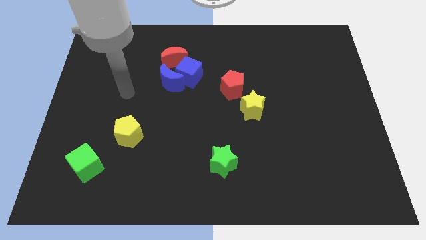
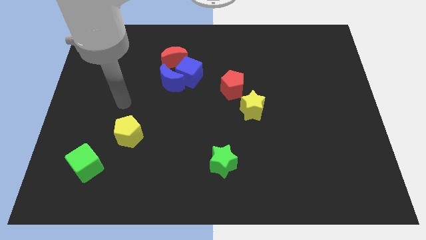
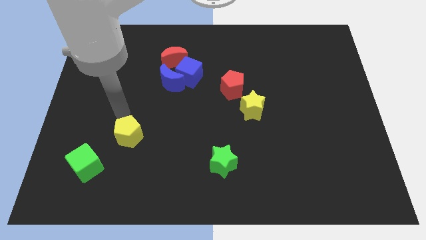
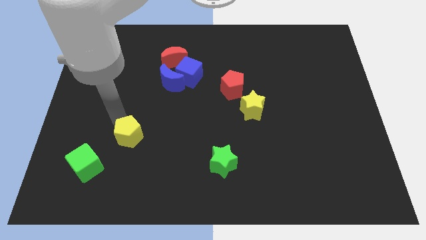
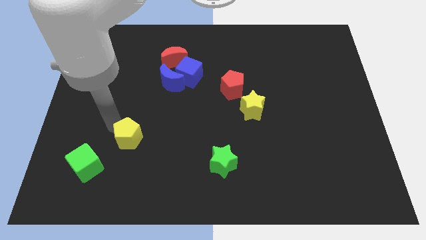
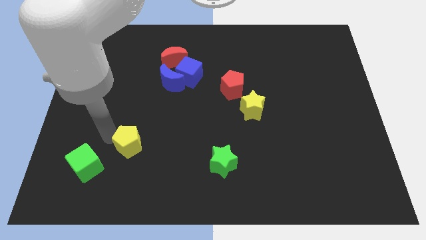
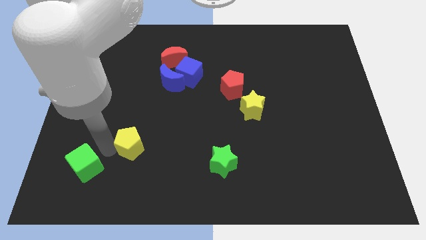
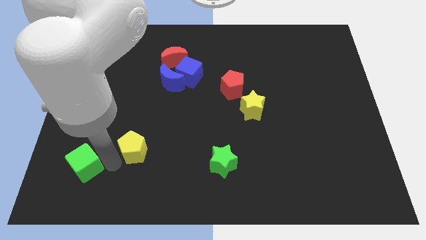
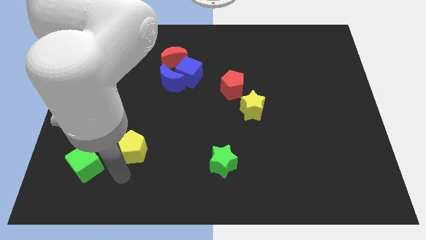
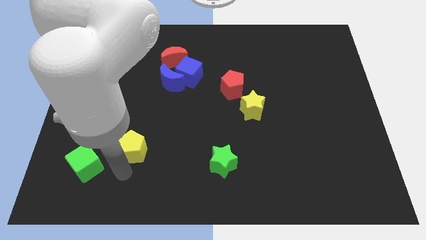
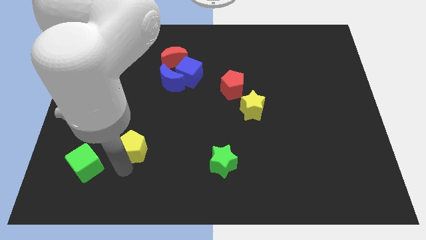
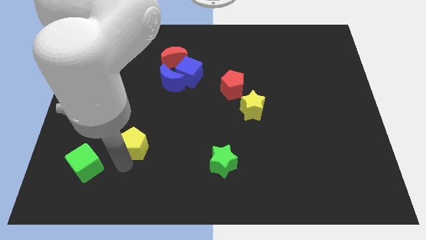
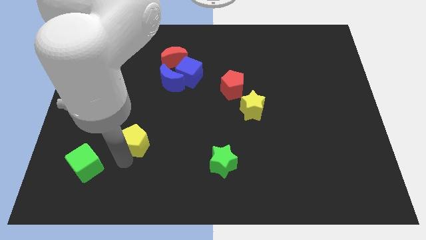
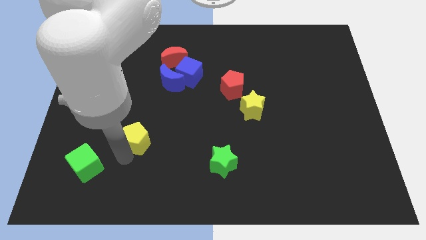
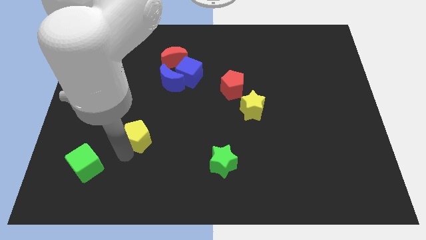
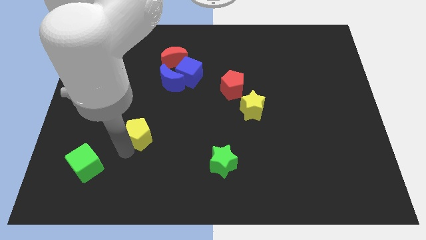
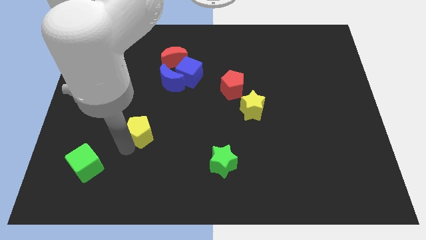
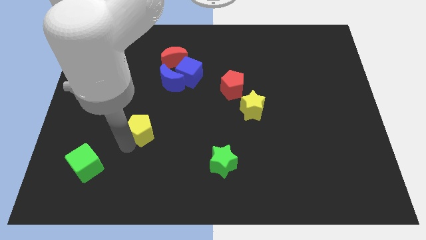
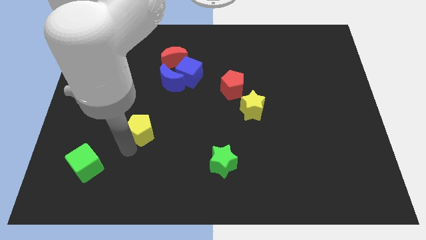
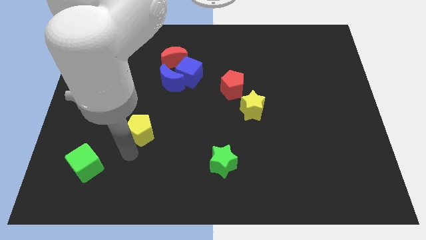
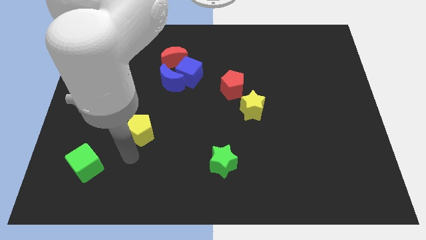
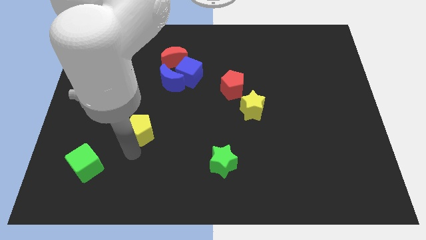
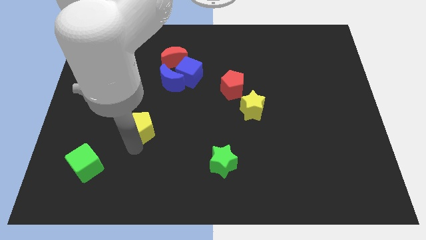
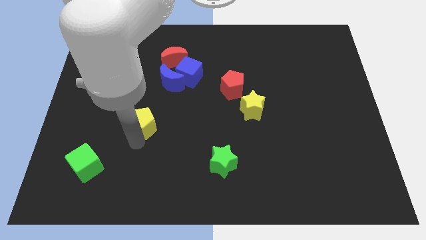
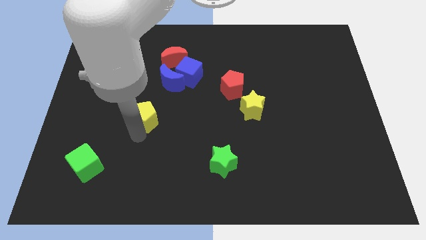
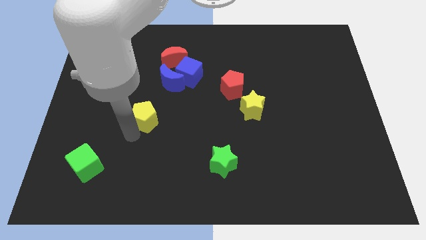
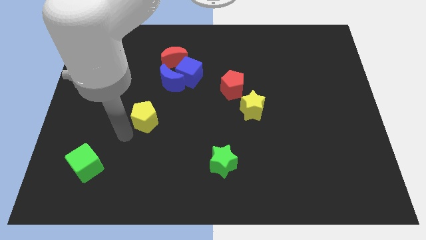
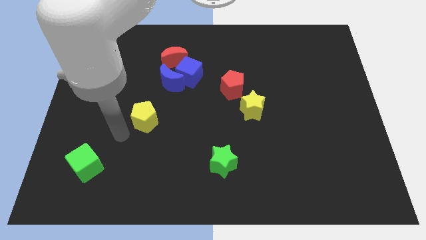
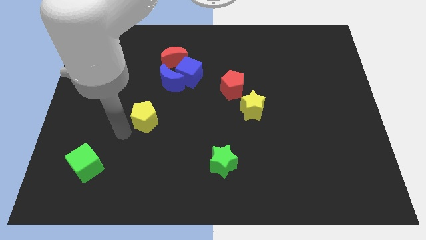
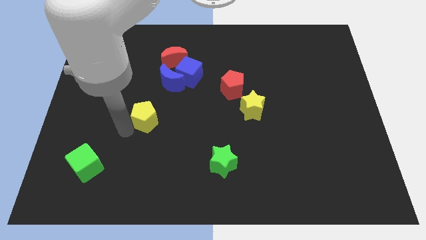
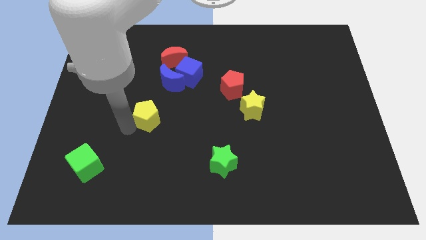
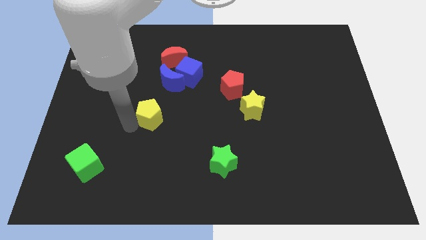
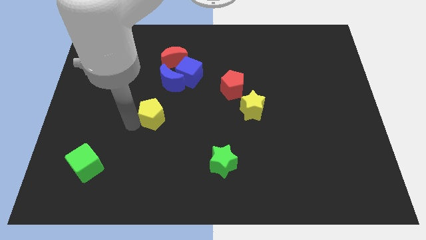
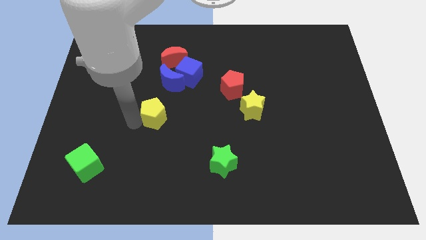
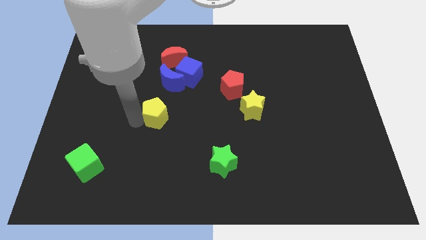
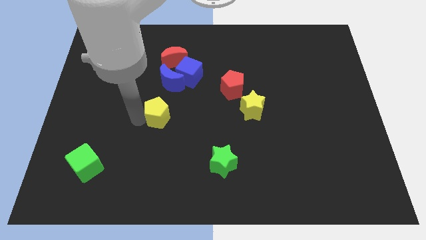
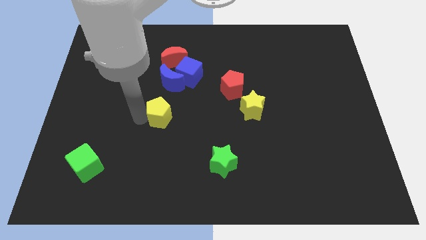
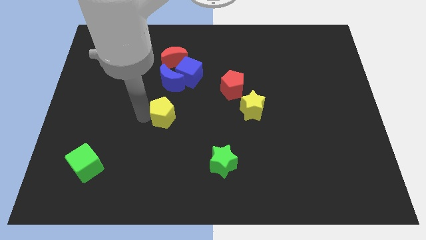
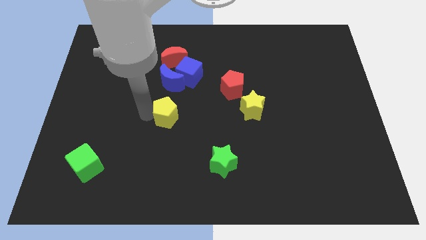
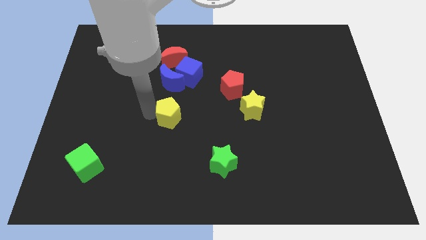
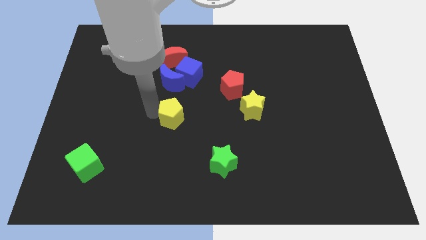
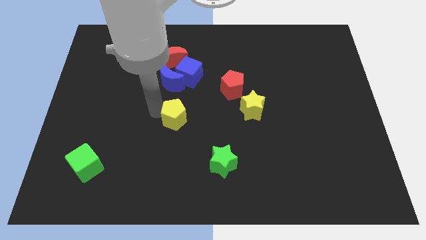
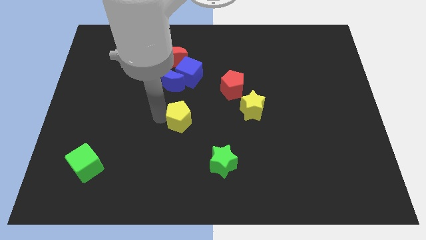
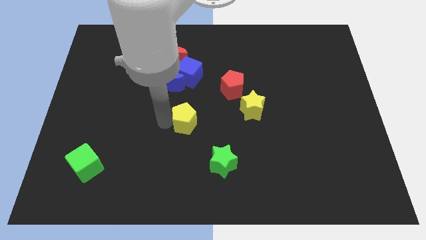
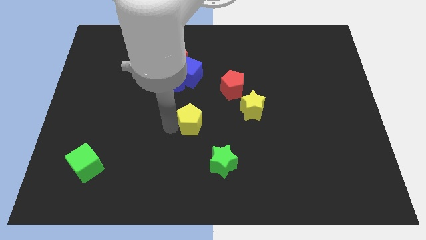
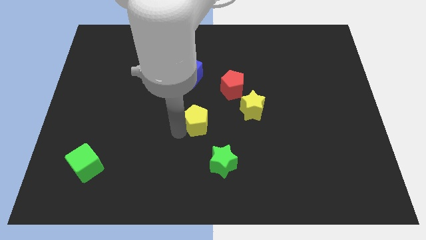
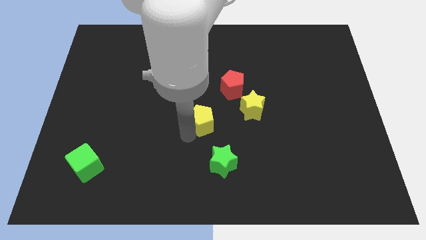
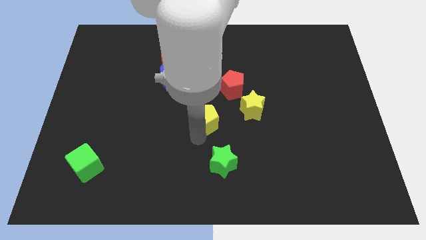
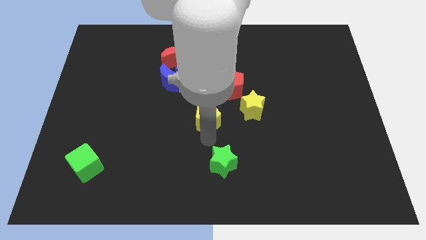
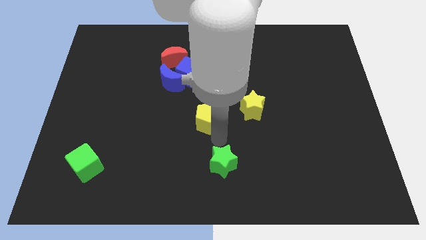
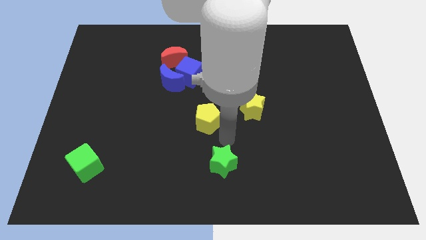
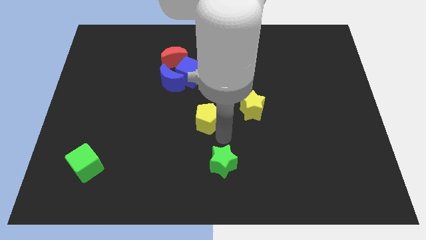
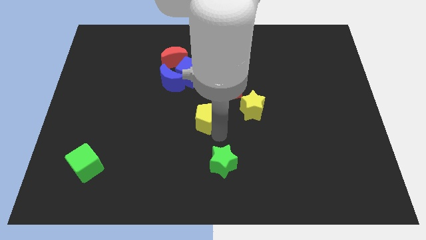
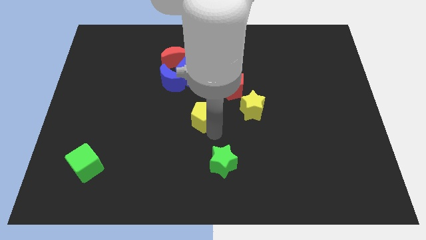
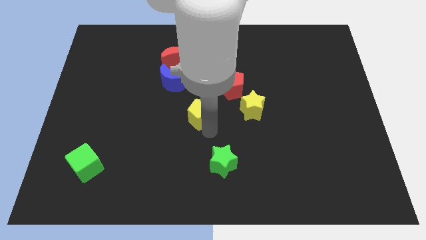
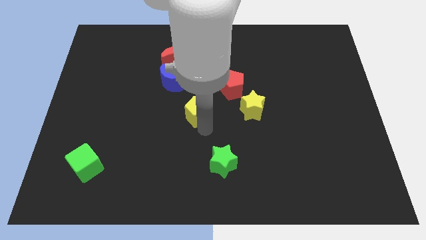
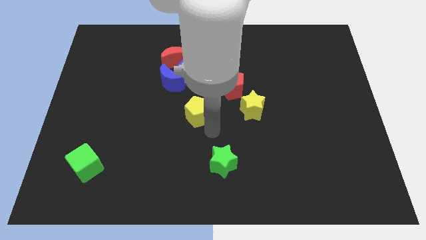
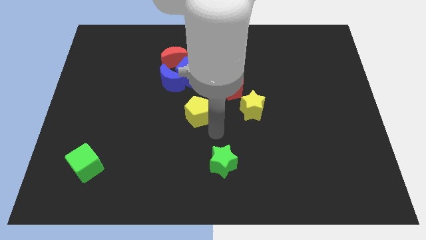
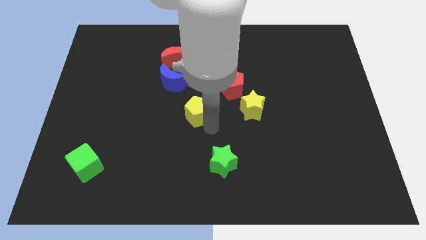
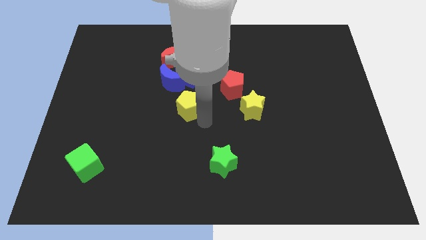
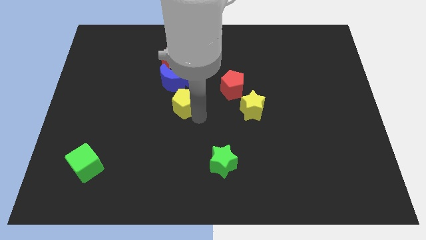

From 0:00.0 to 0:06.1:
put the yellow pentagon to the bottom of the red moon

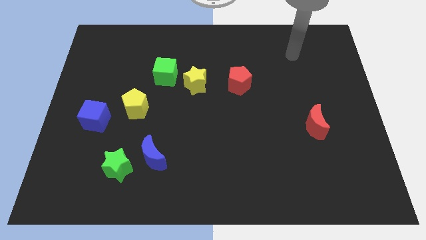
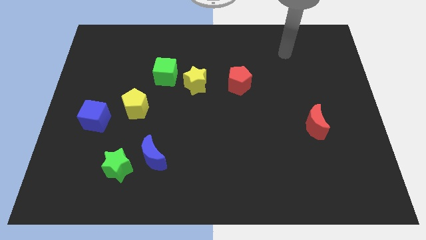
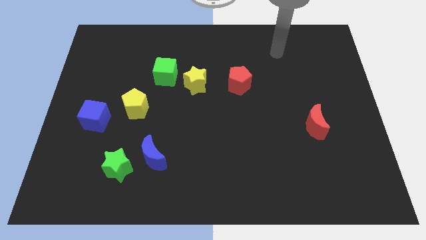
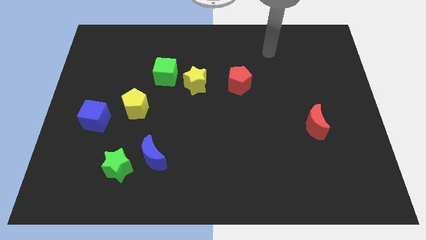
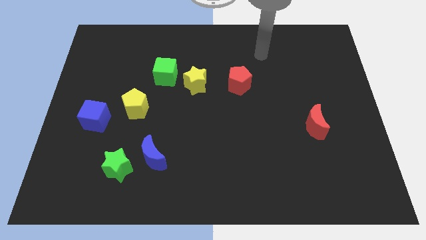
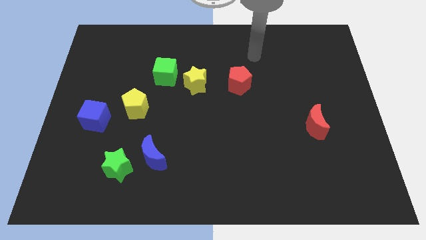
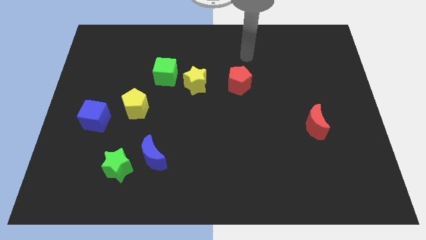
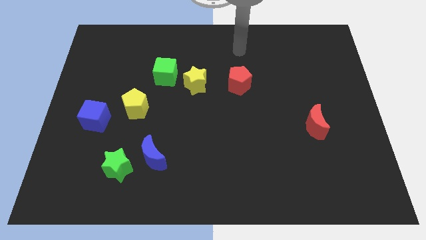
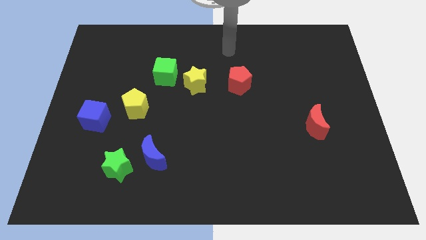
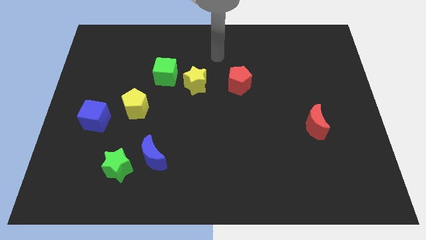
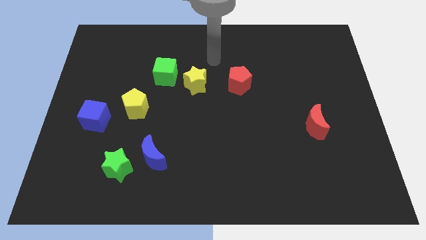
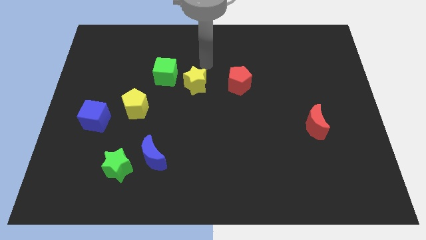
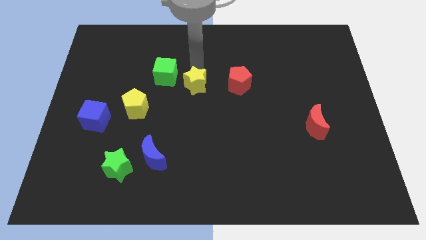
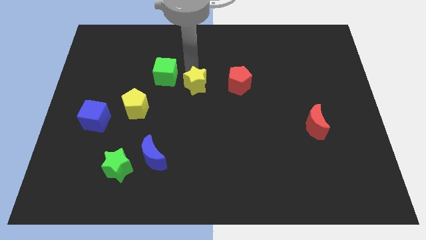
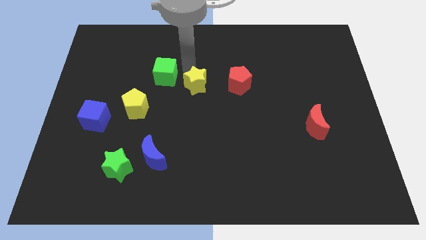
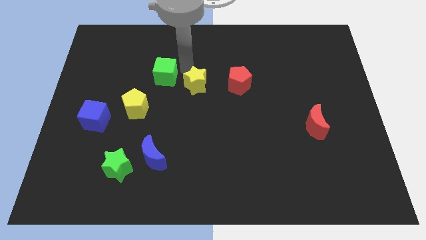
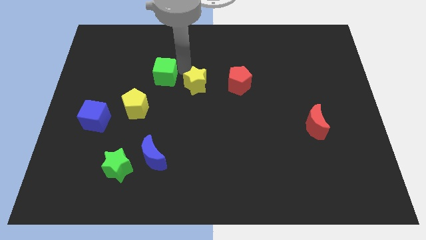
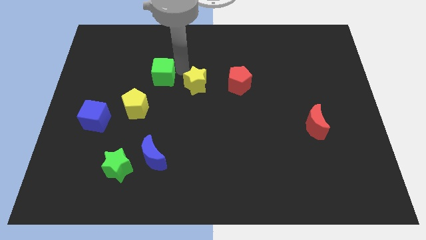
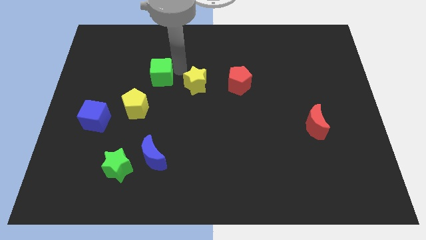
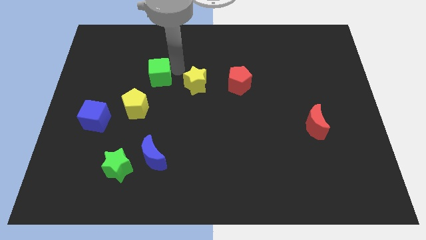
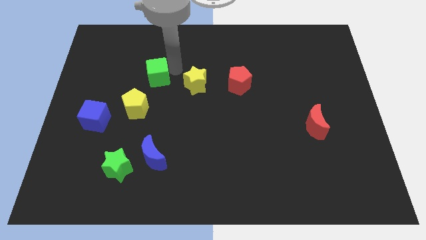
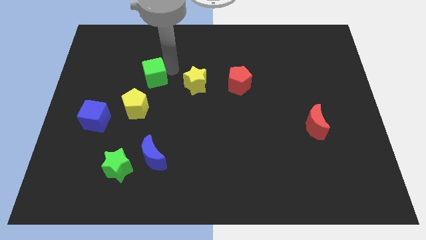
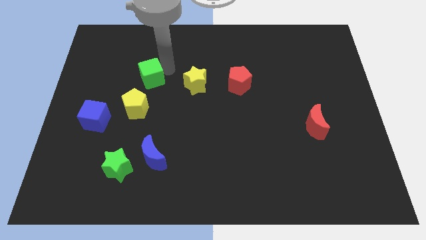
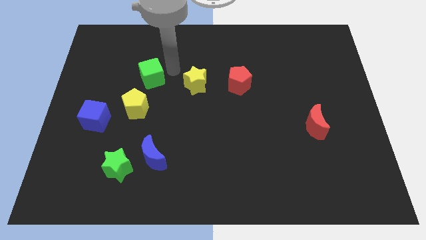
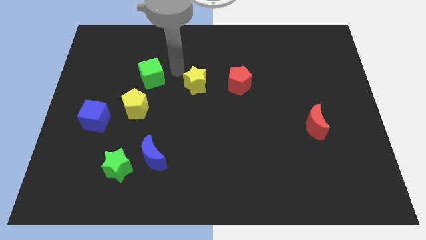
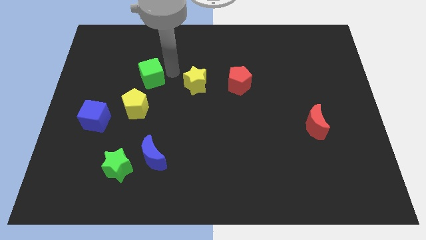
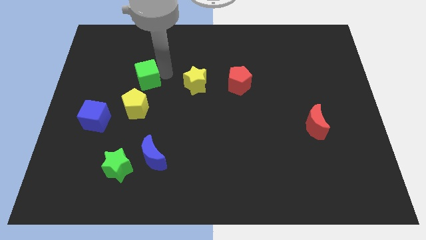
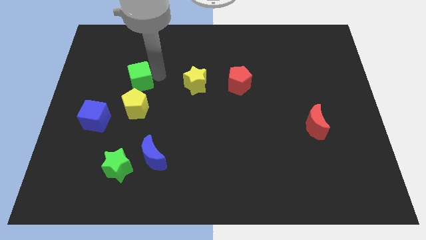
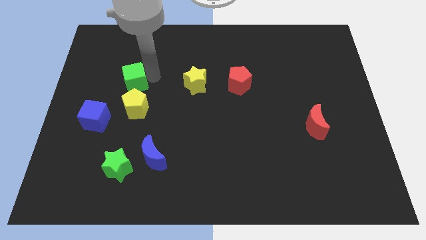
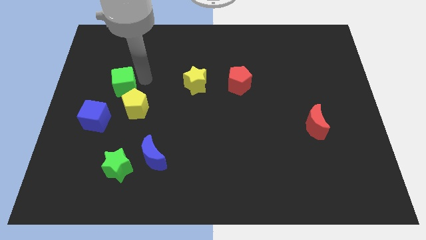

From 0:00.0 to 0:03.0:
move the green cube to the top side of the blue cube
